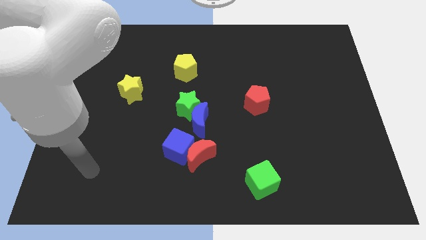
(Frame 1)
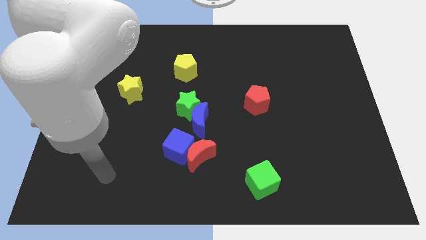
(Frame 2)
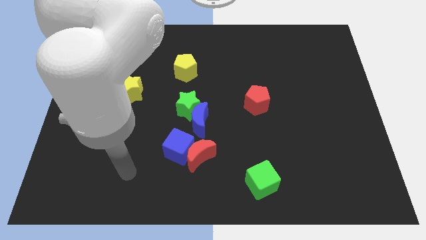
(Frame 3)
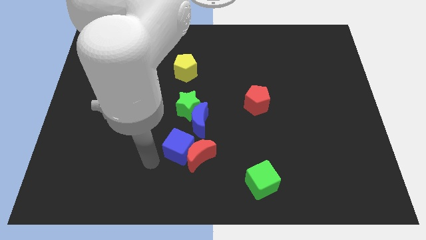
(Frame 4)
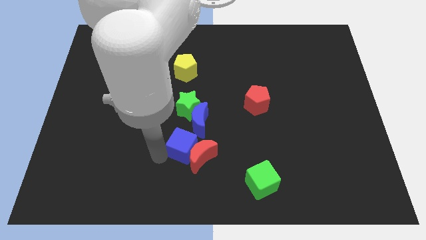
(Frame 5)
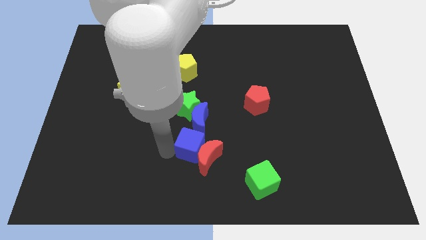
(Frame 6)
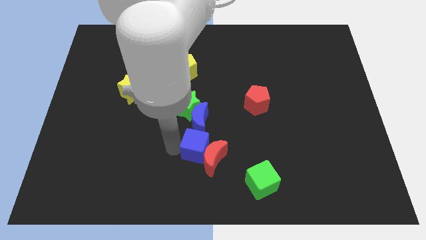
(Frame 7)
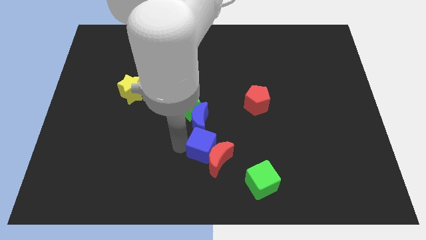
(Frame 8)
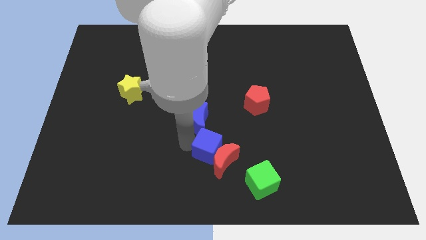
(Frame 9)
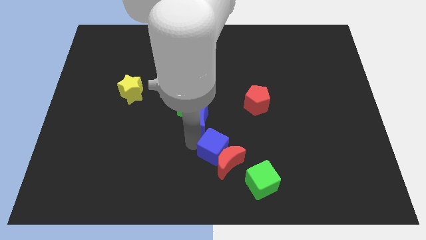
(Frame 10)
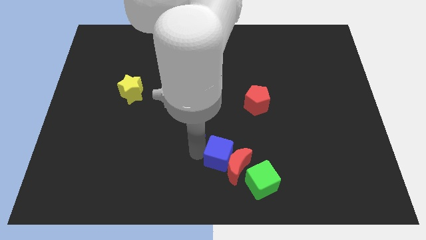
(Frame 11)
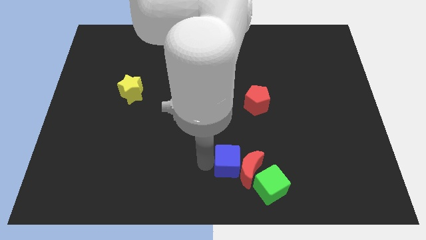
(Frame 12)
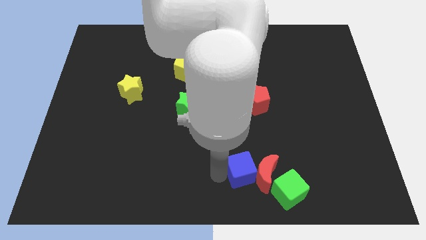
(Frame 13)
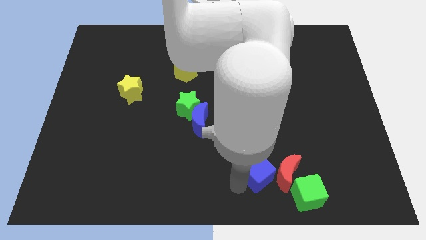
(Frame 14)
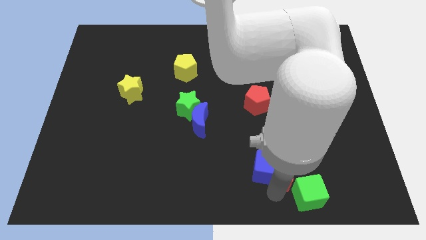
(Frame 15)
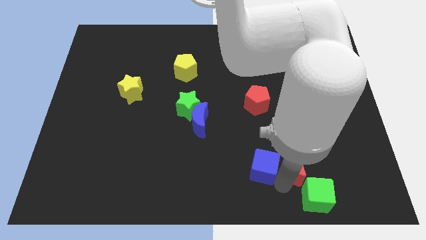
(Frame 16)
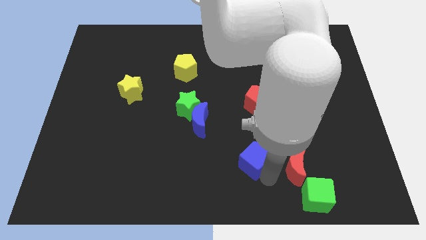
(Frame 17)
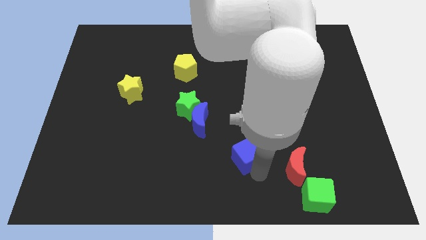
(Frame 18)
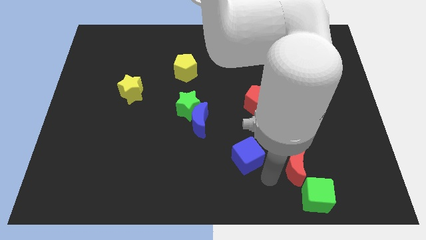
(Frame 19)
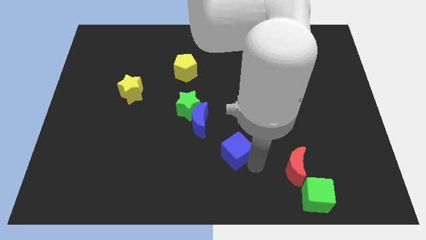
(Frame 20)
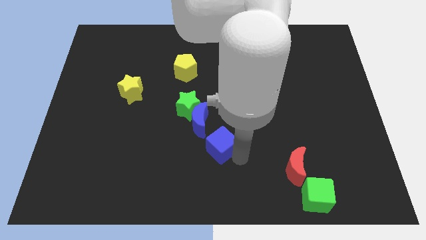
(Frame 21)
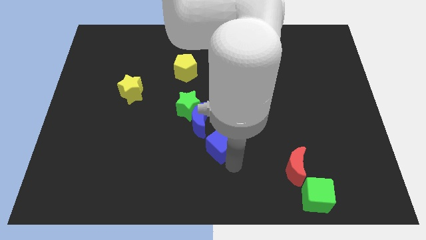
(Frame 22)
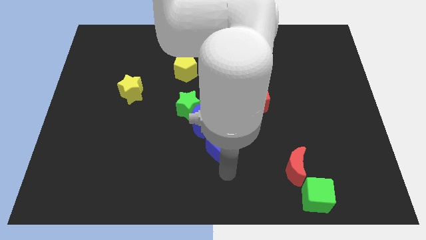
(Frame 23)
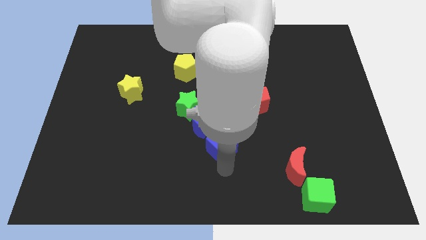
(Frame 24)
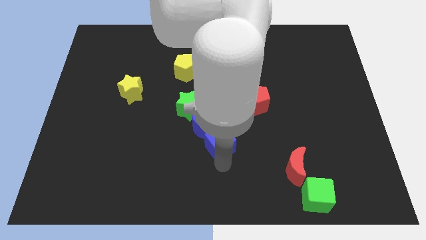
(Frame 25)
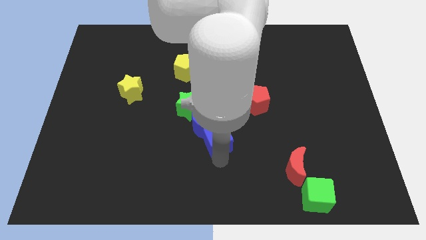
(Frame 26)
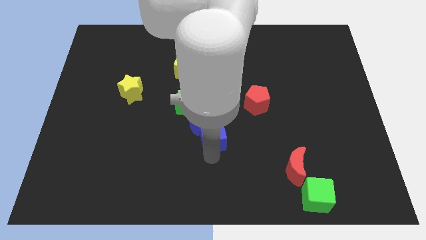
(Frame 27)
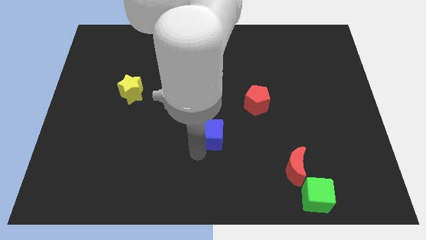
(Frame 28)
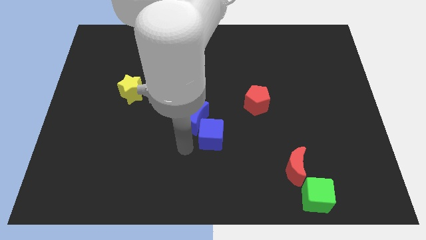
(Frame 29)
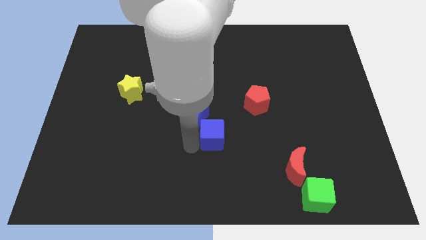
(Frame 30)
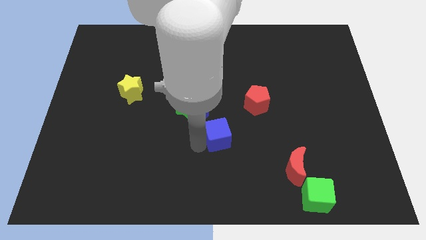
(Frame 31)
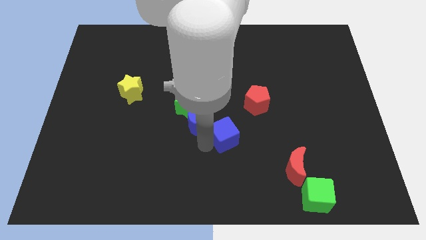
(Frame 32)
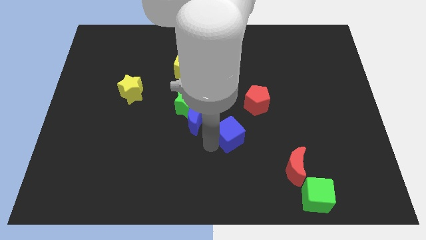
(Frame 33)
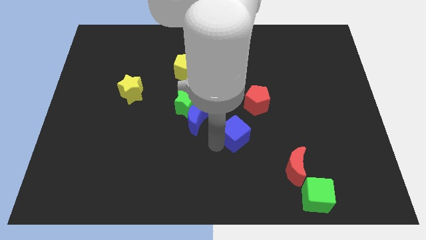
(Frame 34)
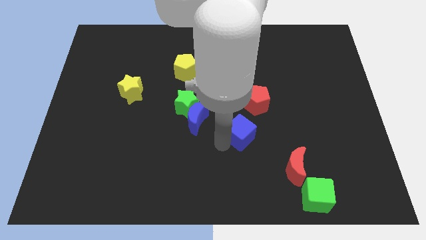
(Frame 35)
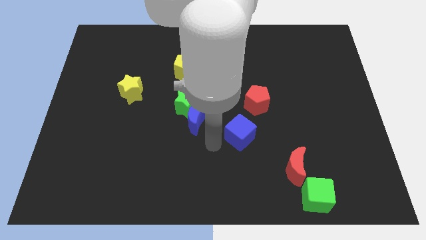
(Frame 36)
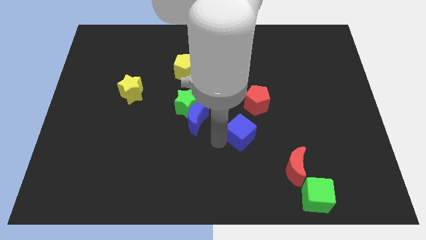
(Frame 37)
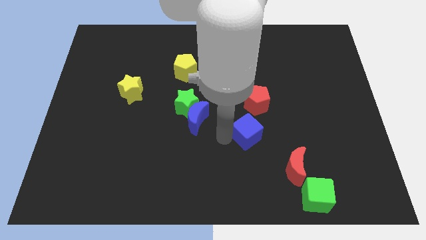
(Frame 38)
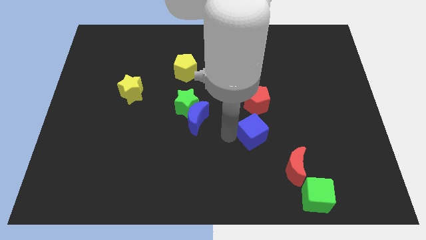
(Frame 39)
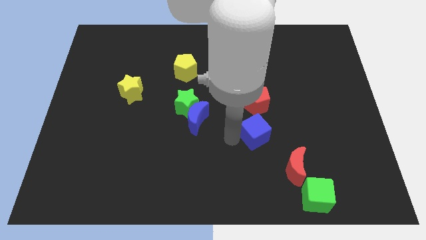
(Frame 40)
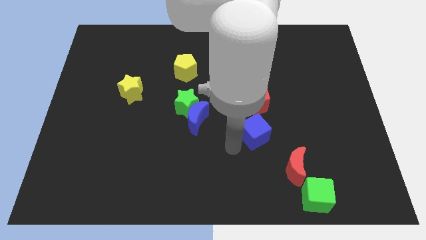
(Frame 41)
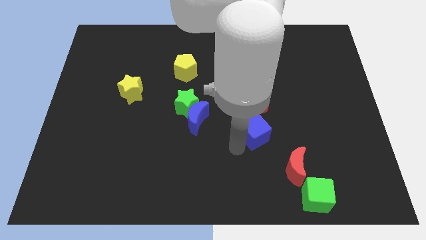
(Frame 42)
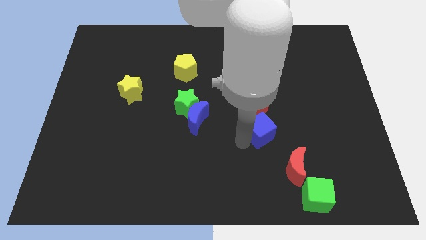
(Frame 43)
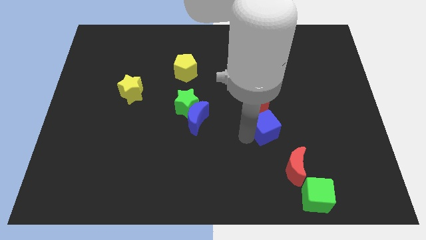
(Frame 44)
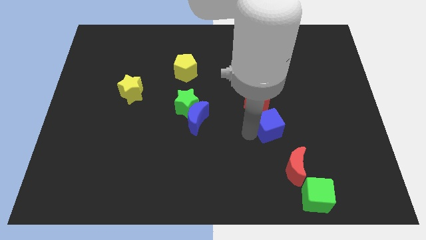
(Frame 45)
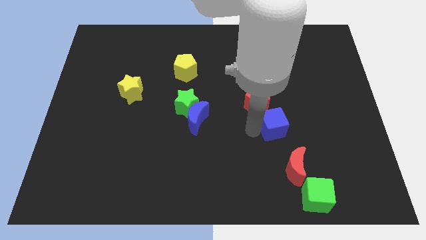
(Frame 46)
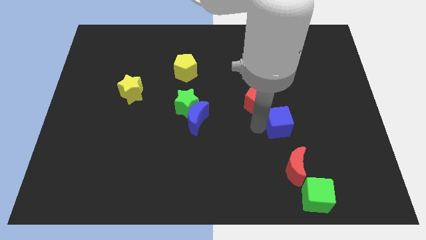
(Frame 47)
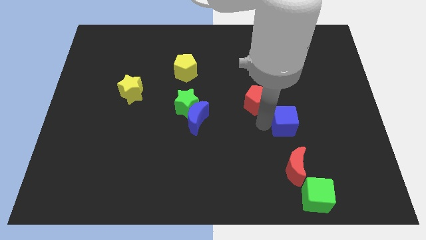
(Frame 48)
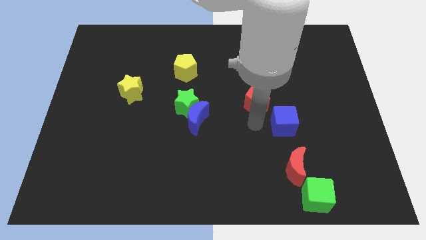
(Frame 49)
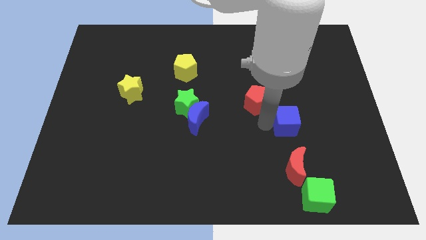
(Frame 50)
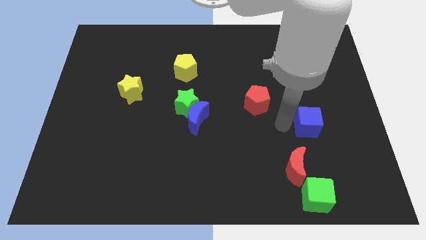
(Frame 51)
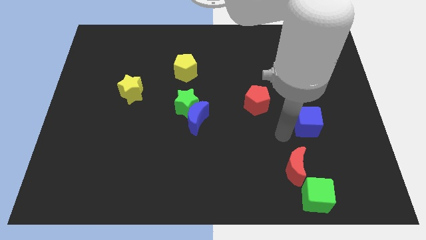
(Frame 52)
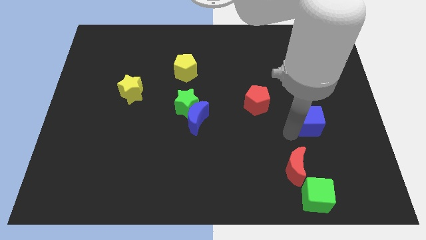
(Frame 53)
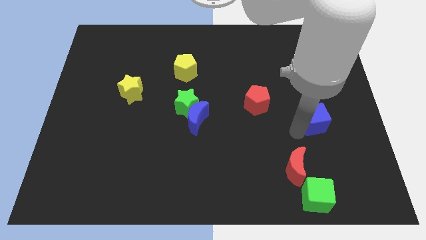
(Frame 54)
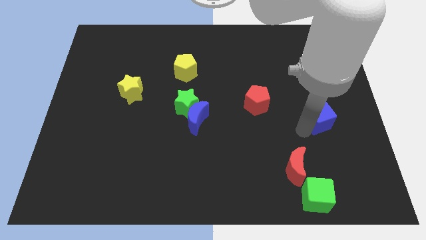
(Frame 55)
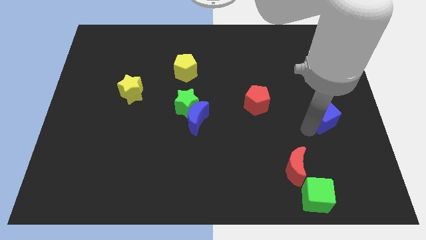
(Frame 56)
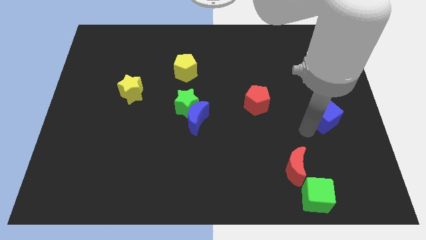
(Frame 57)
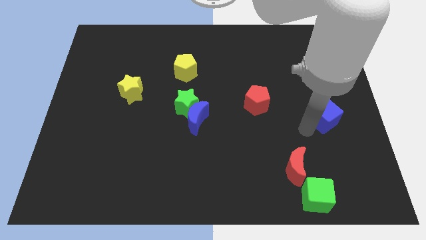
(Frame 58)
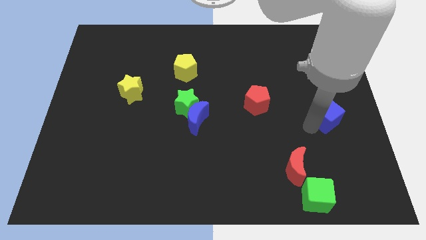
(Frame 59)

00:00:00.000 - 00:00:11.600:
move the blue cube to the right side

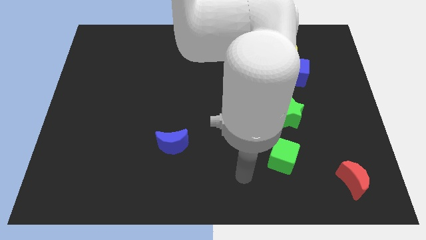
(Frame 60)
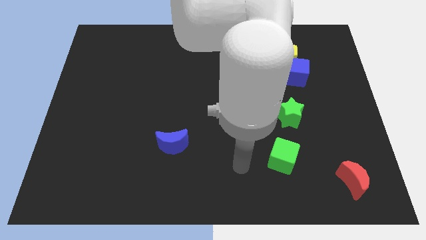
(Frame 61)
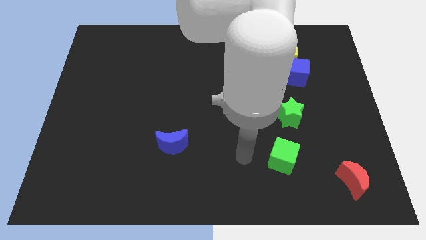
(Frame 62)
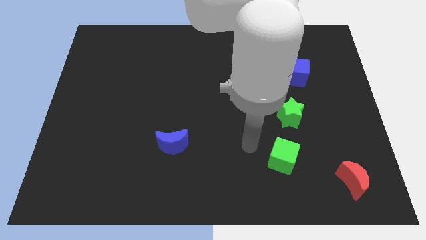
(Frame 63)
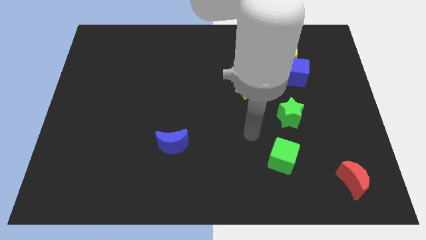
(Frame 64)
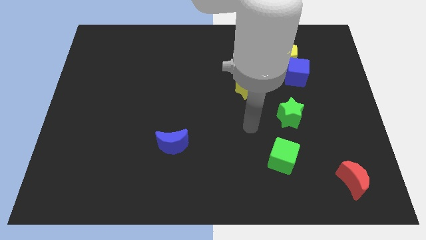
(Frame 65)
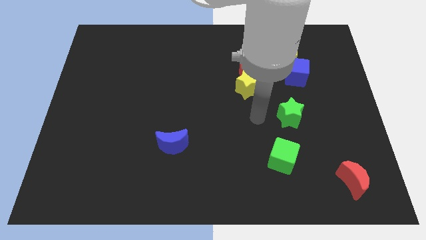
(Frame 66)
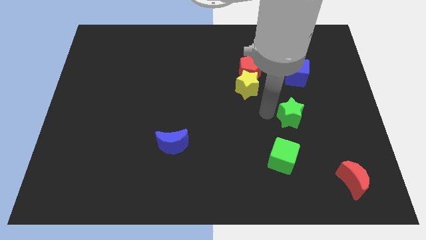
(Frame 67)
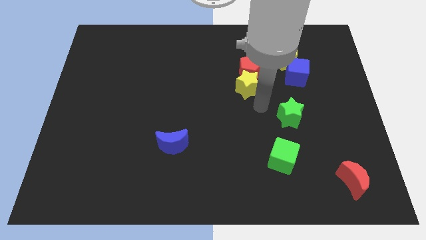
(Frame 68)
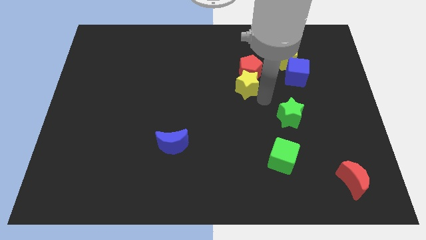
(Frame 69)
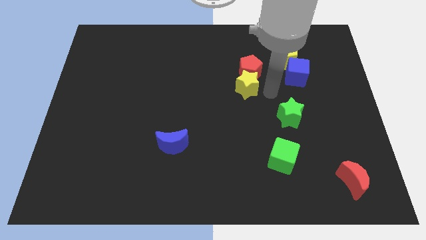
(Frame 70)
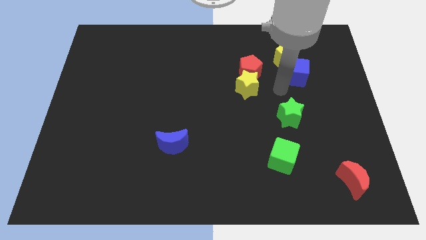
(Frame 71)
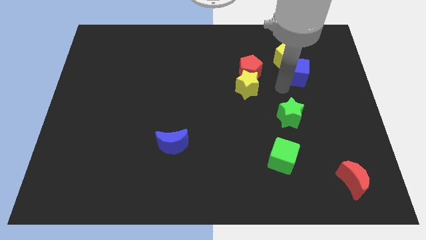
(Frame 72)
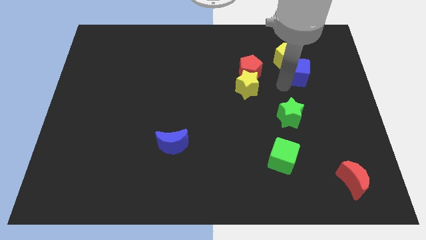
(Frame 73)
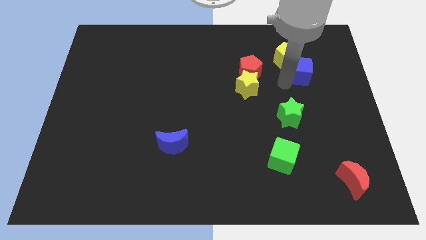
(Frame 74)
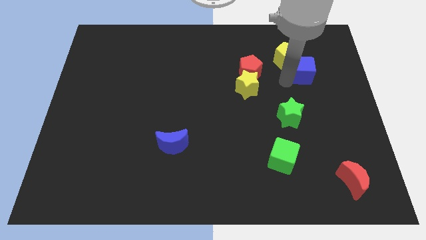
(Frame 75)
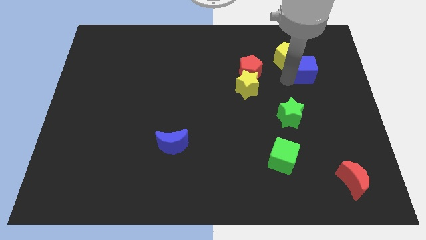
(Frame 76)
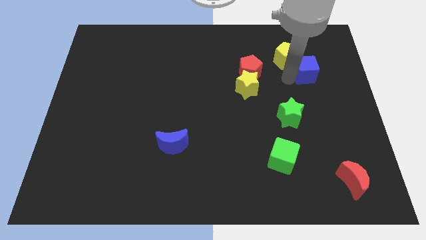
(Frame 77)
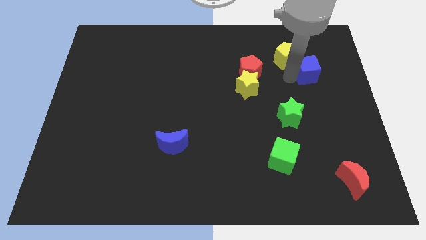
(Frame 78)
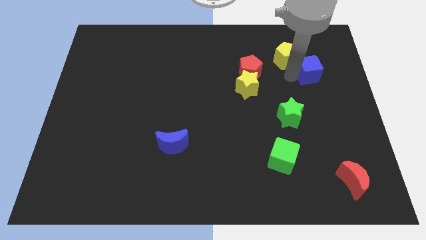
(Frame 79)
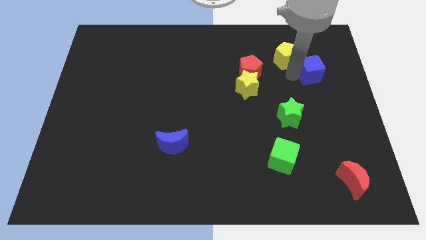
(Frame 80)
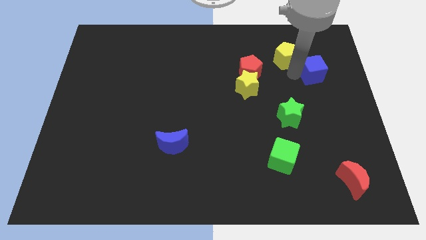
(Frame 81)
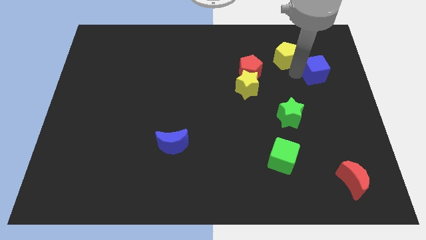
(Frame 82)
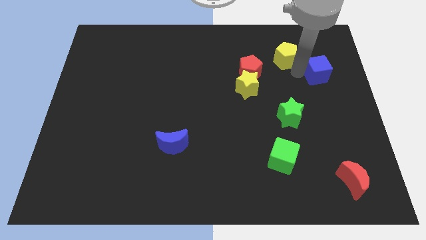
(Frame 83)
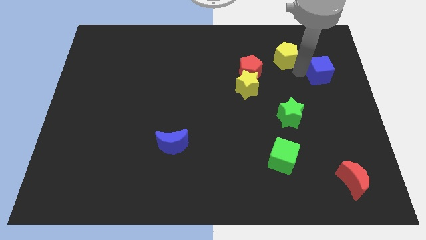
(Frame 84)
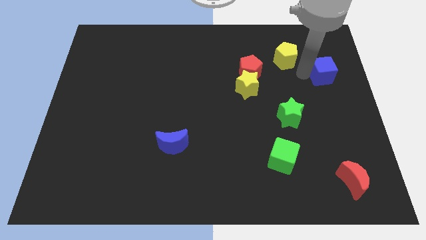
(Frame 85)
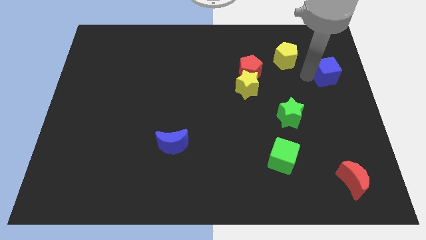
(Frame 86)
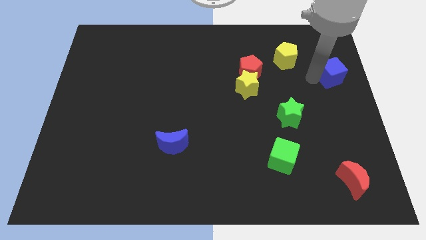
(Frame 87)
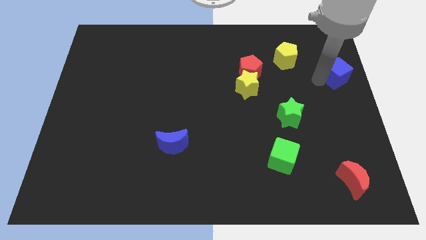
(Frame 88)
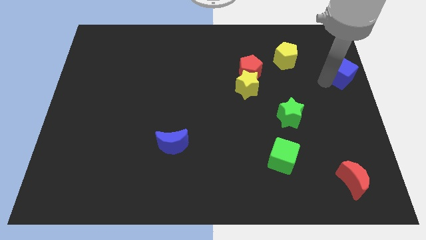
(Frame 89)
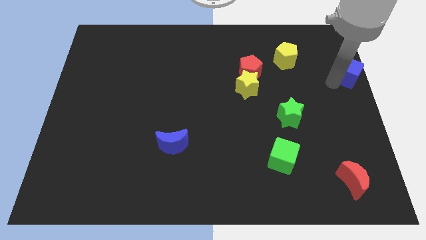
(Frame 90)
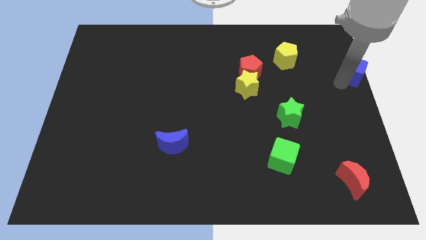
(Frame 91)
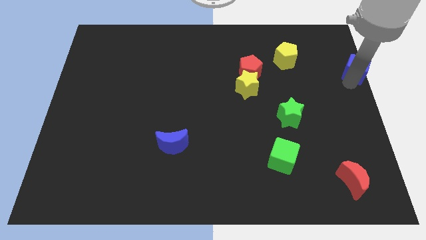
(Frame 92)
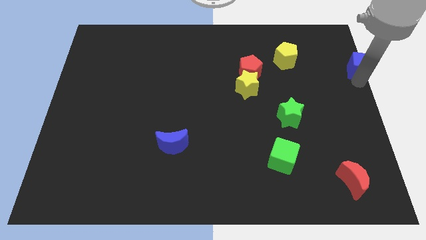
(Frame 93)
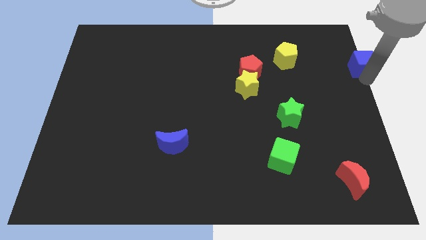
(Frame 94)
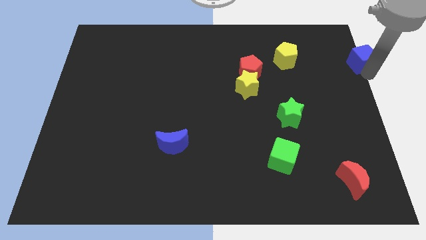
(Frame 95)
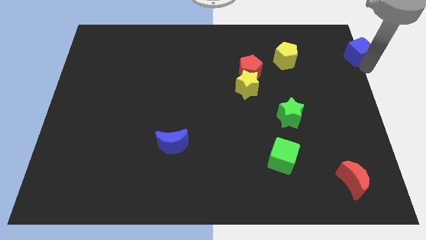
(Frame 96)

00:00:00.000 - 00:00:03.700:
slide the blue cube to the top right corner
